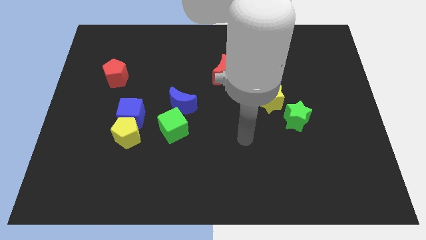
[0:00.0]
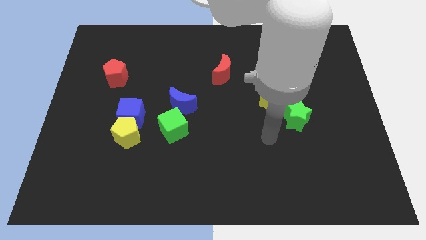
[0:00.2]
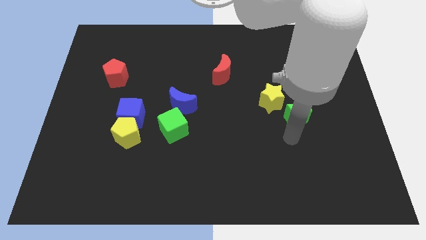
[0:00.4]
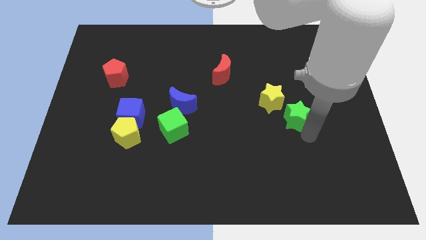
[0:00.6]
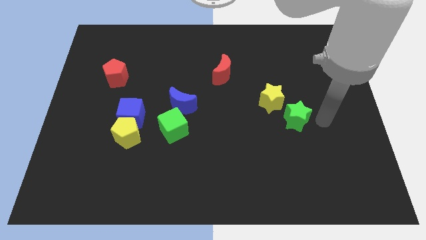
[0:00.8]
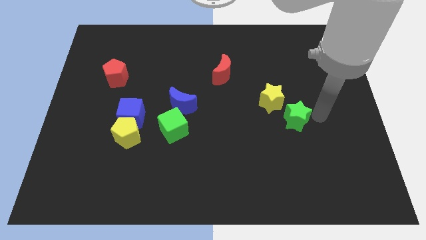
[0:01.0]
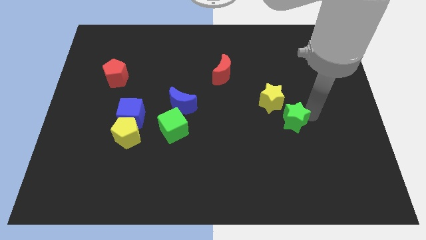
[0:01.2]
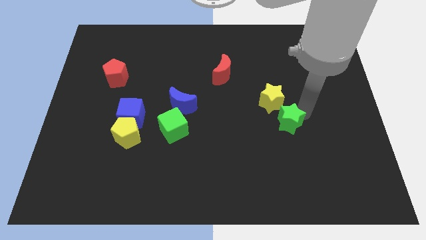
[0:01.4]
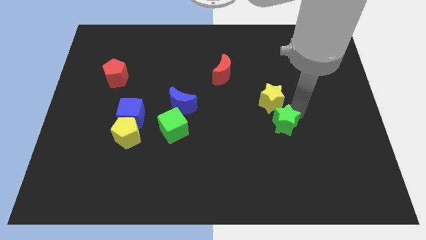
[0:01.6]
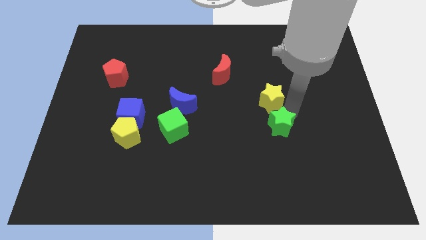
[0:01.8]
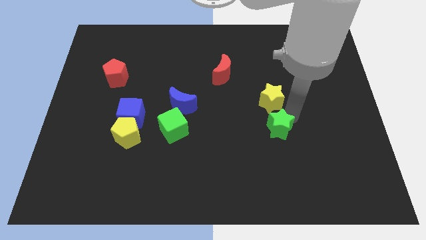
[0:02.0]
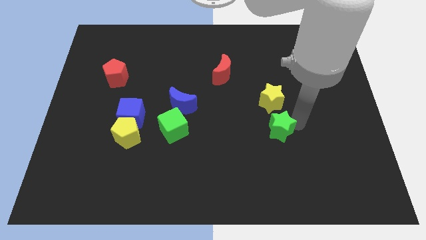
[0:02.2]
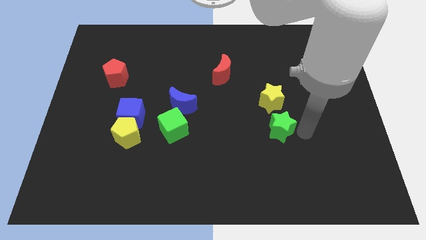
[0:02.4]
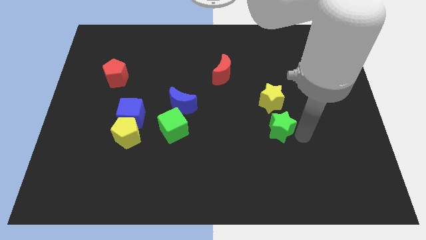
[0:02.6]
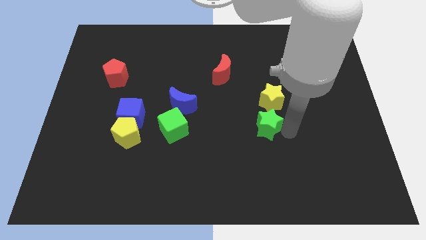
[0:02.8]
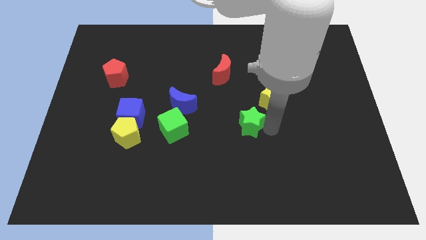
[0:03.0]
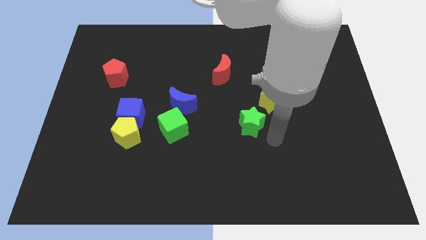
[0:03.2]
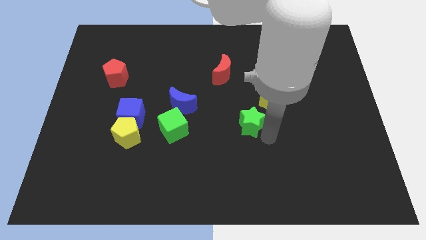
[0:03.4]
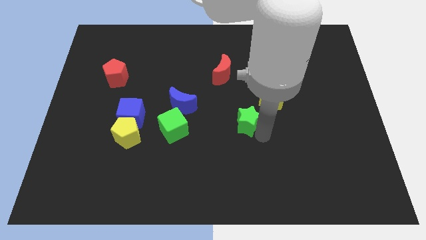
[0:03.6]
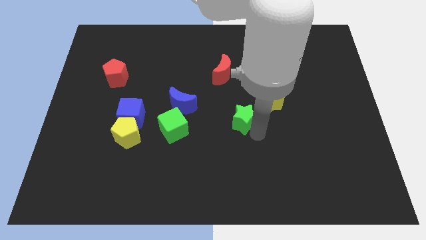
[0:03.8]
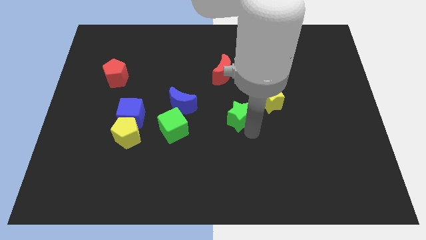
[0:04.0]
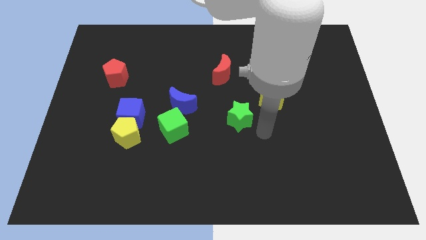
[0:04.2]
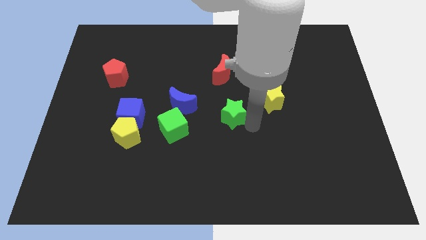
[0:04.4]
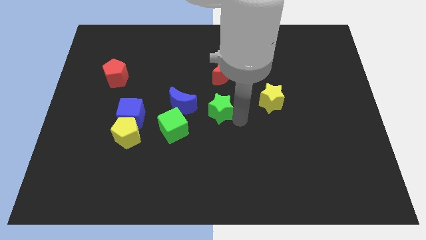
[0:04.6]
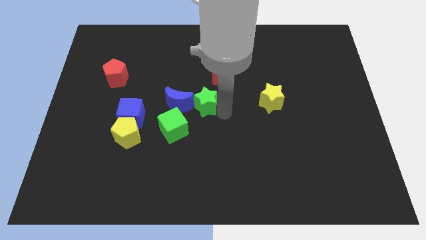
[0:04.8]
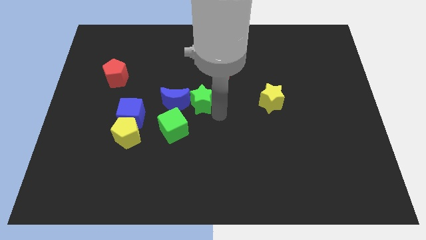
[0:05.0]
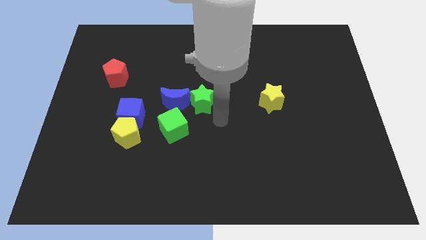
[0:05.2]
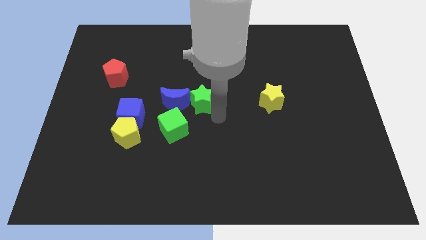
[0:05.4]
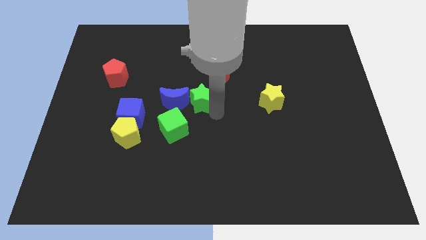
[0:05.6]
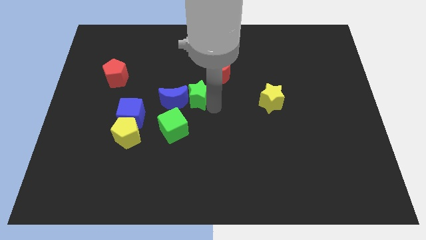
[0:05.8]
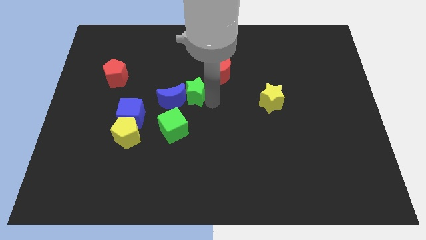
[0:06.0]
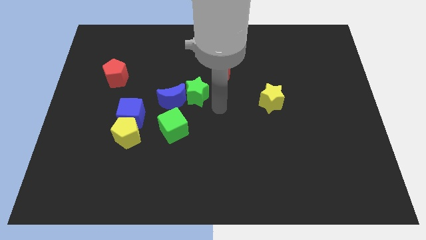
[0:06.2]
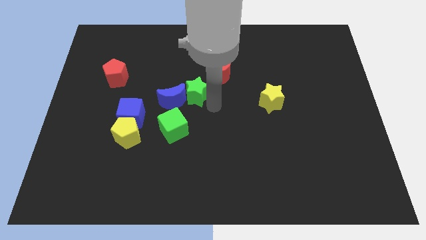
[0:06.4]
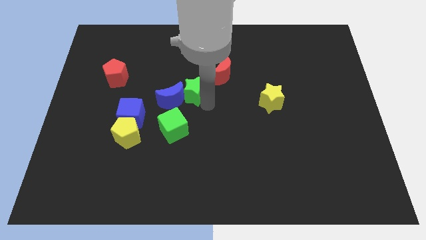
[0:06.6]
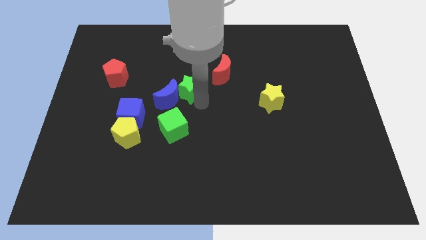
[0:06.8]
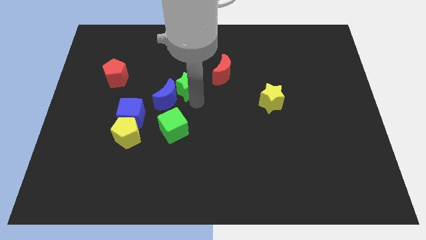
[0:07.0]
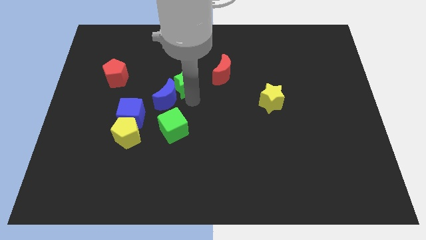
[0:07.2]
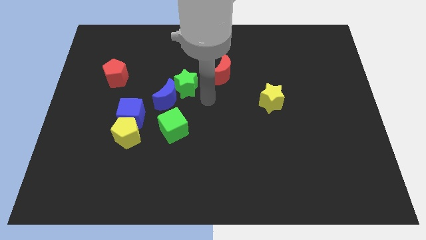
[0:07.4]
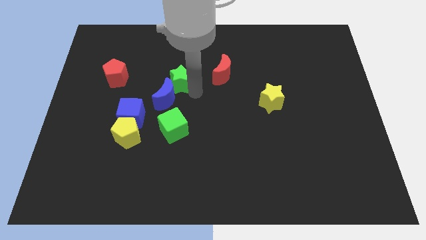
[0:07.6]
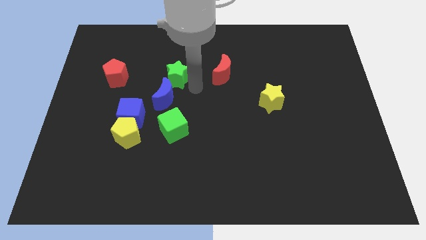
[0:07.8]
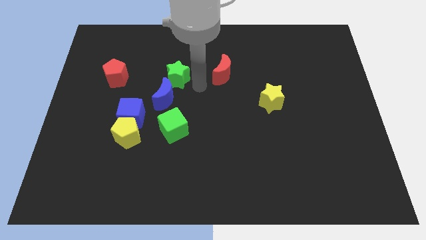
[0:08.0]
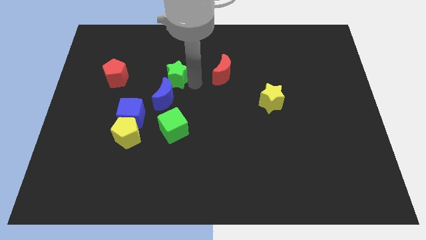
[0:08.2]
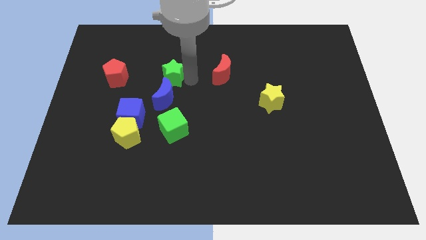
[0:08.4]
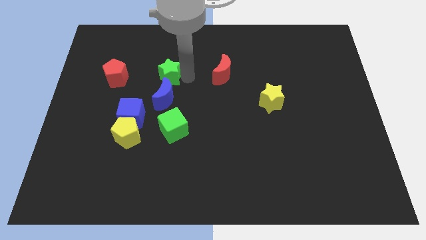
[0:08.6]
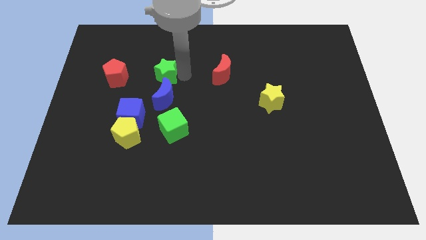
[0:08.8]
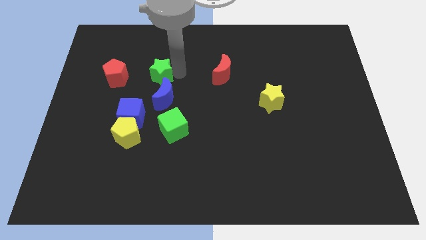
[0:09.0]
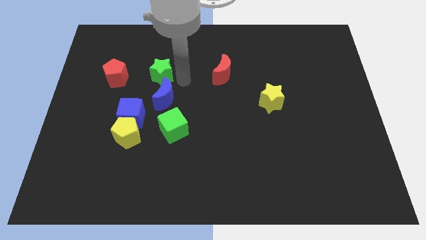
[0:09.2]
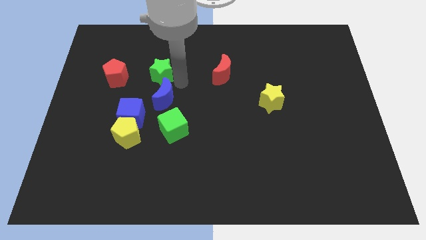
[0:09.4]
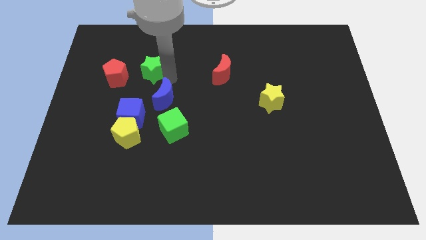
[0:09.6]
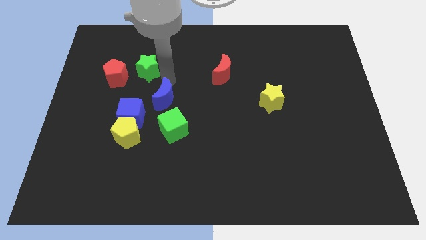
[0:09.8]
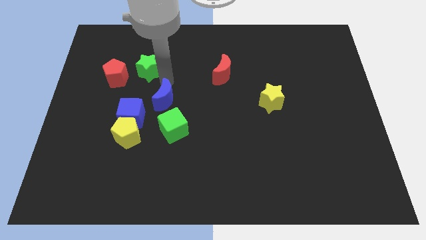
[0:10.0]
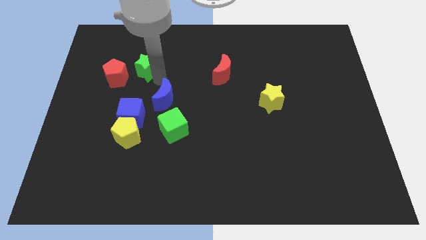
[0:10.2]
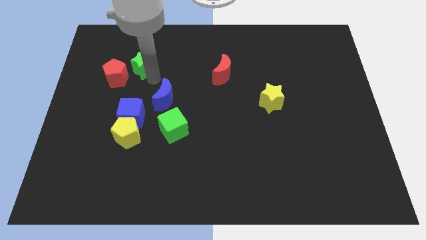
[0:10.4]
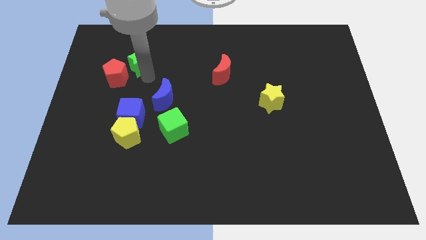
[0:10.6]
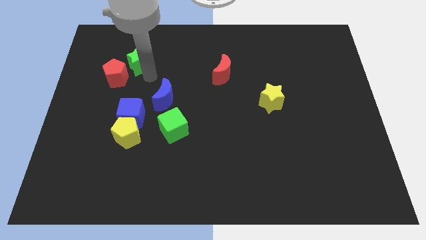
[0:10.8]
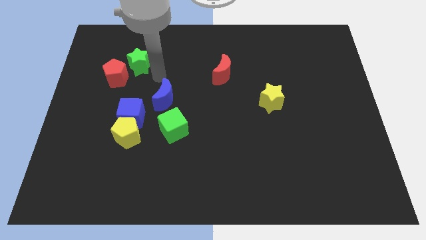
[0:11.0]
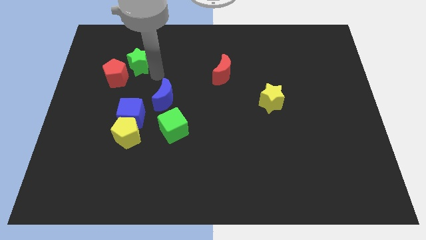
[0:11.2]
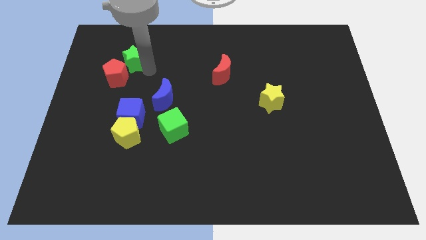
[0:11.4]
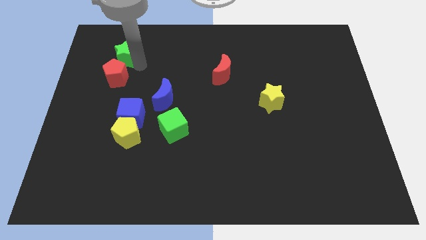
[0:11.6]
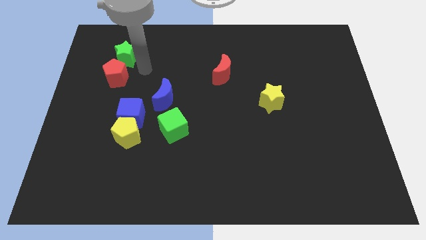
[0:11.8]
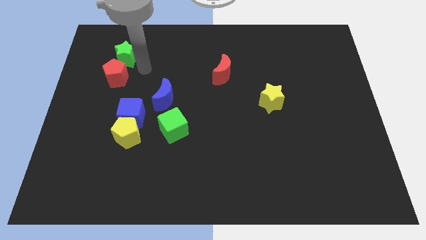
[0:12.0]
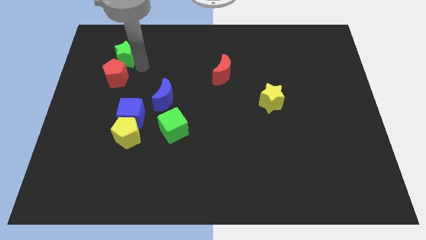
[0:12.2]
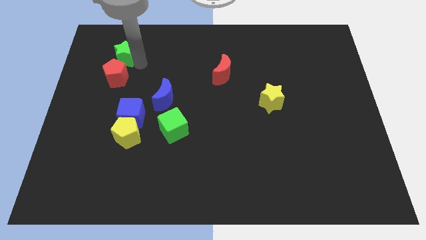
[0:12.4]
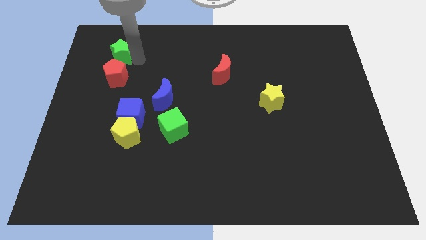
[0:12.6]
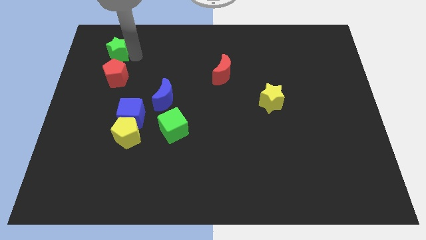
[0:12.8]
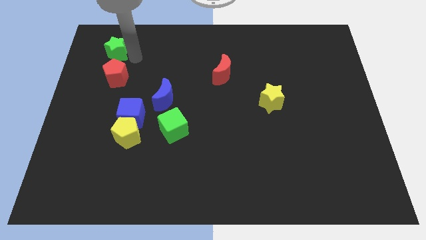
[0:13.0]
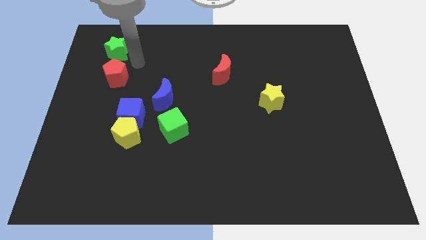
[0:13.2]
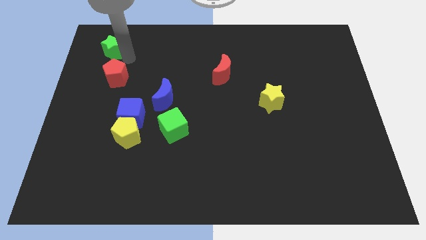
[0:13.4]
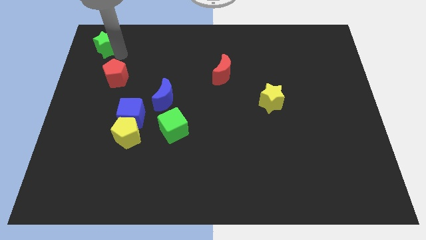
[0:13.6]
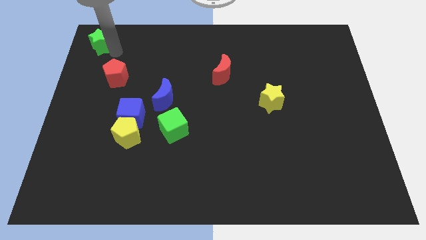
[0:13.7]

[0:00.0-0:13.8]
push the green star to the upper left corner
